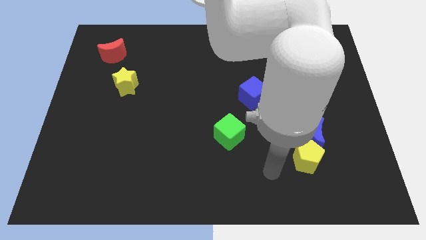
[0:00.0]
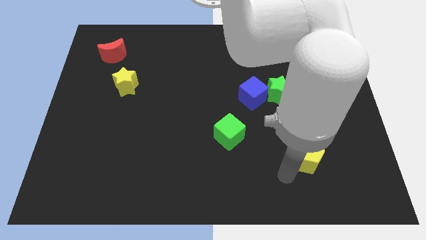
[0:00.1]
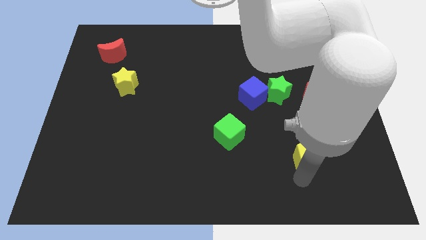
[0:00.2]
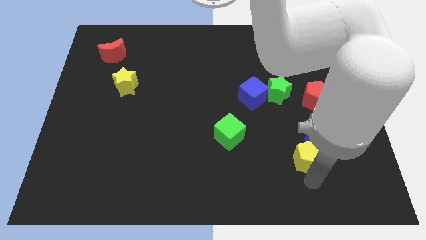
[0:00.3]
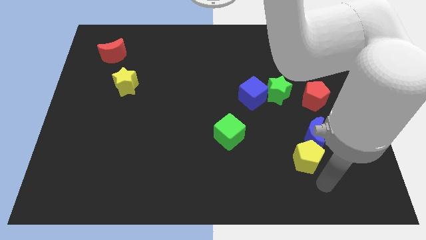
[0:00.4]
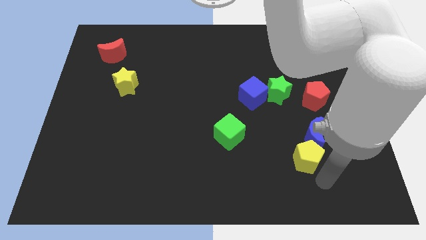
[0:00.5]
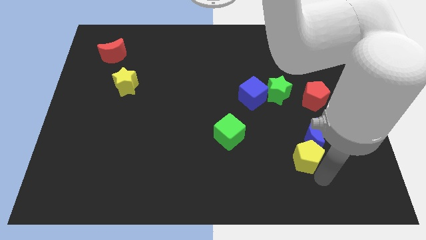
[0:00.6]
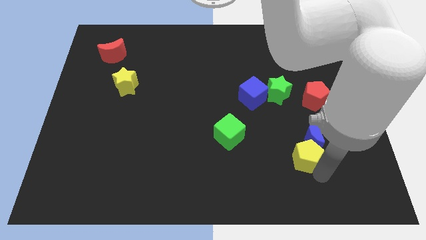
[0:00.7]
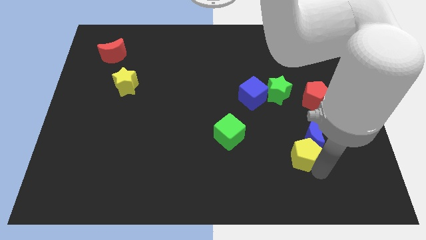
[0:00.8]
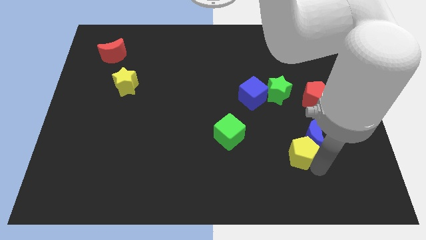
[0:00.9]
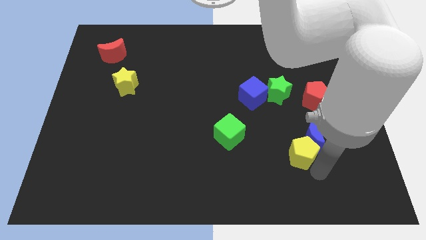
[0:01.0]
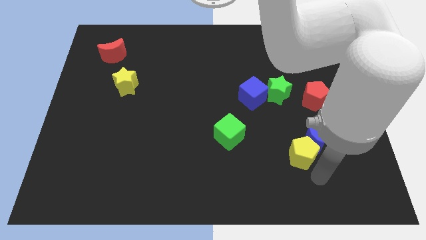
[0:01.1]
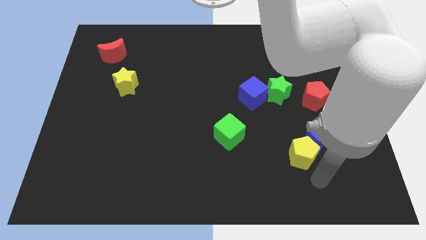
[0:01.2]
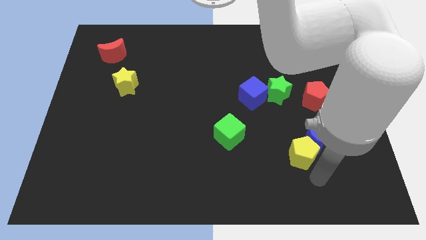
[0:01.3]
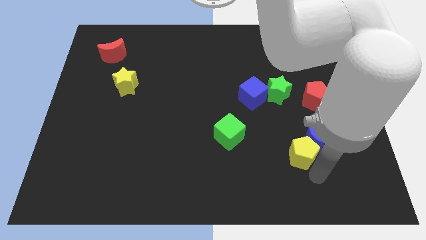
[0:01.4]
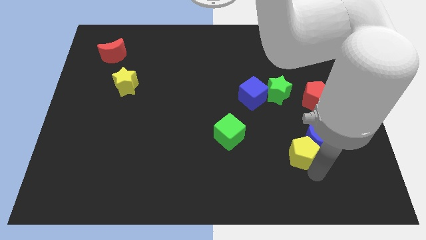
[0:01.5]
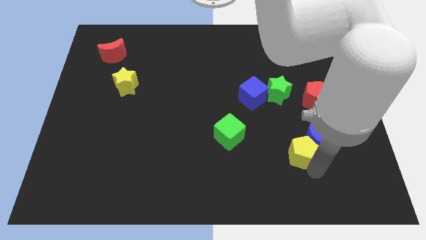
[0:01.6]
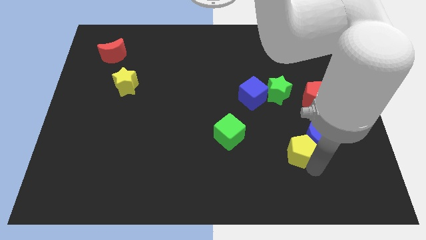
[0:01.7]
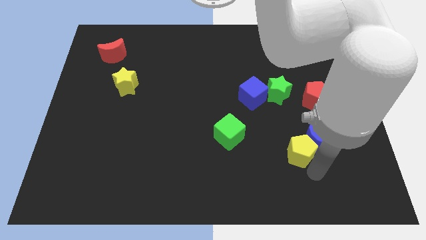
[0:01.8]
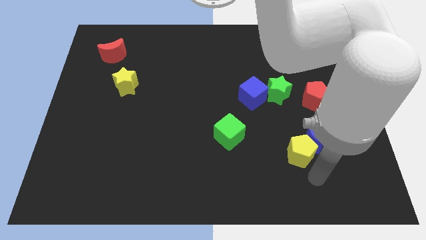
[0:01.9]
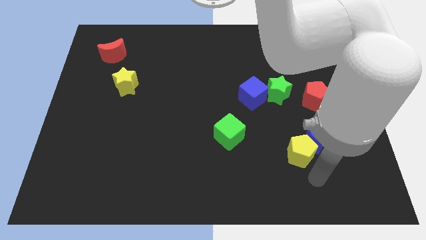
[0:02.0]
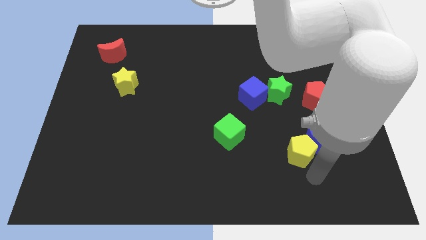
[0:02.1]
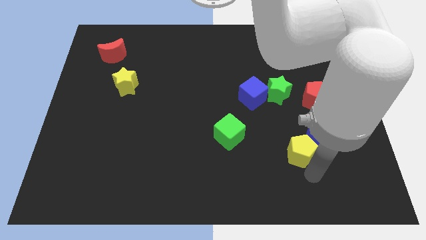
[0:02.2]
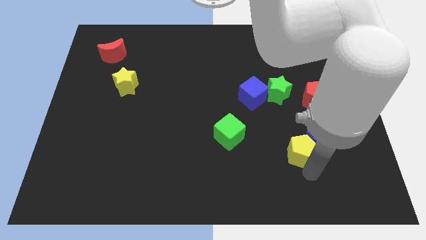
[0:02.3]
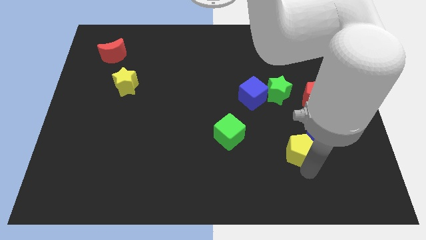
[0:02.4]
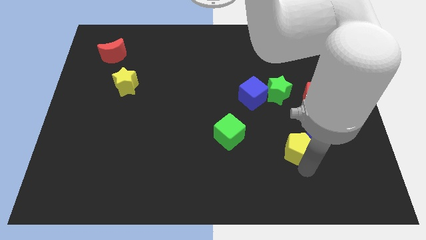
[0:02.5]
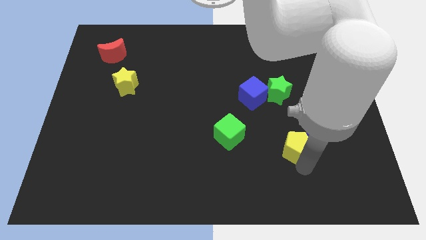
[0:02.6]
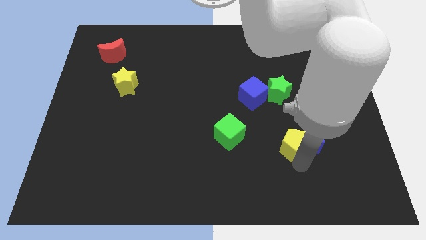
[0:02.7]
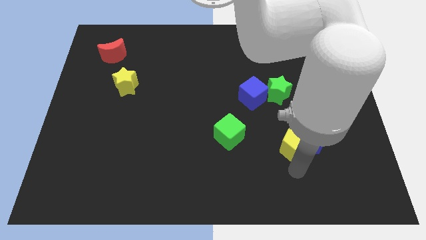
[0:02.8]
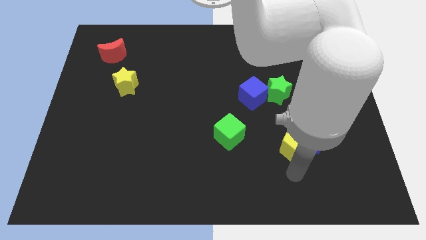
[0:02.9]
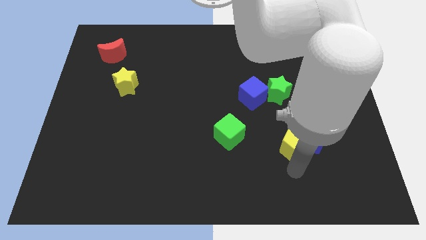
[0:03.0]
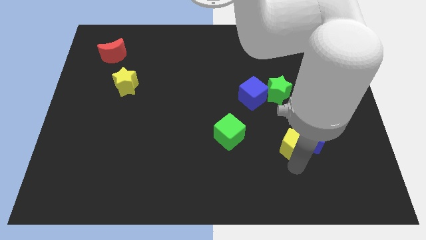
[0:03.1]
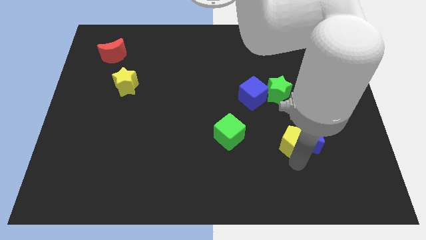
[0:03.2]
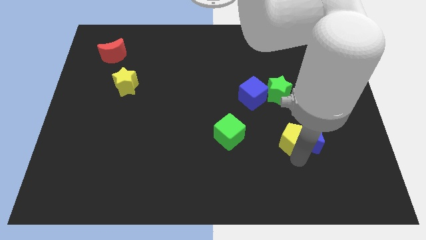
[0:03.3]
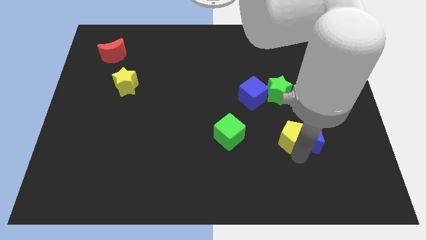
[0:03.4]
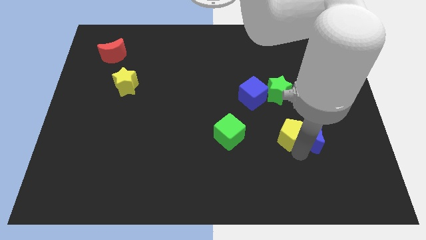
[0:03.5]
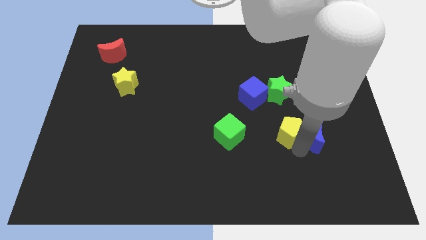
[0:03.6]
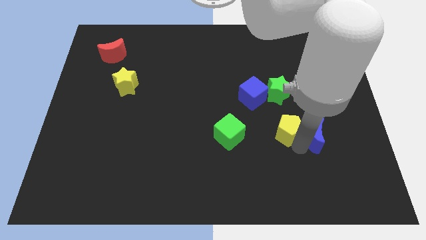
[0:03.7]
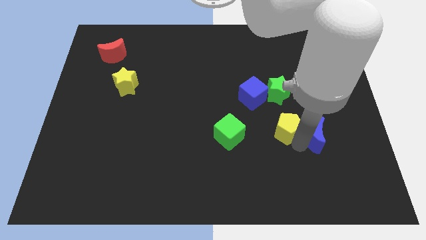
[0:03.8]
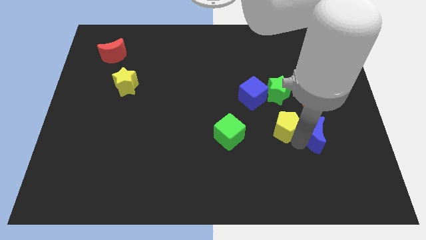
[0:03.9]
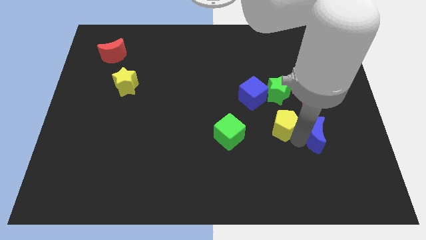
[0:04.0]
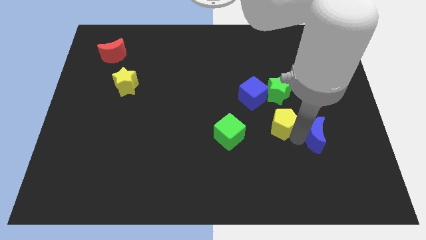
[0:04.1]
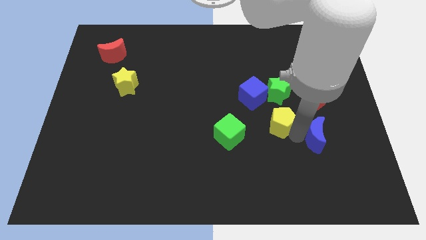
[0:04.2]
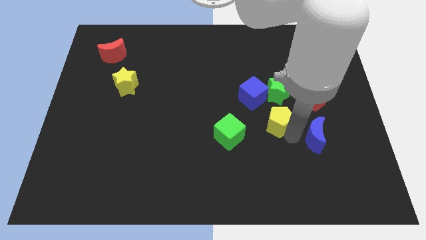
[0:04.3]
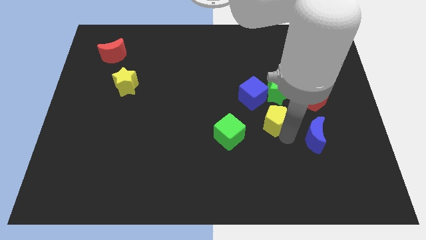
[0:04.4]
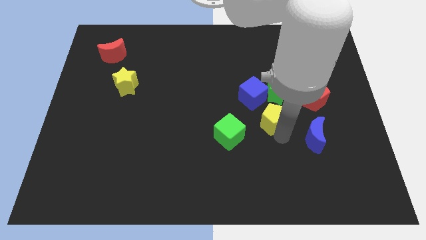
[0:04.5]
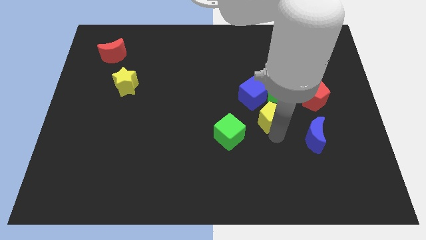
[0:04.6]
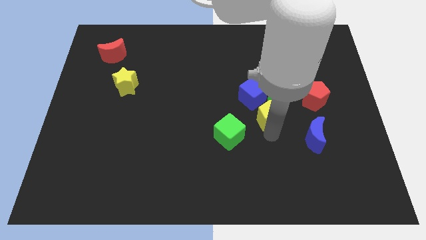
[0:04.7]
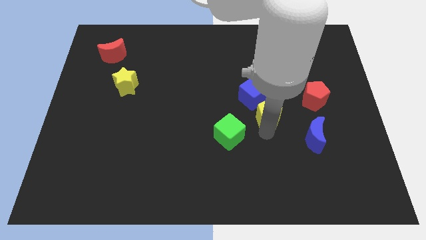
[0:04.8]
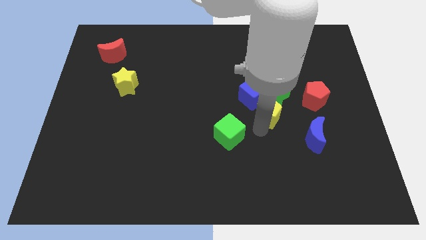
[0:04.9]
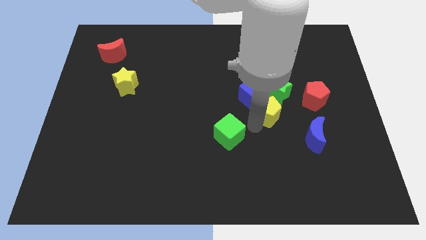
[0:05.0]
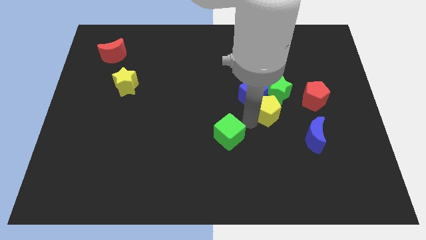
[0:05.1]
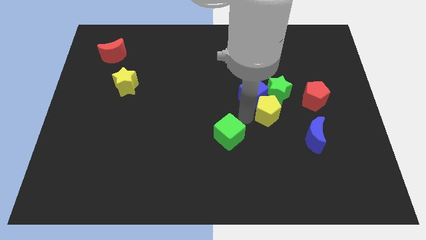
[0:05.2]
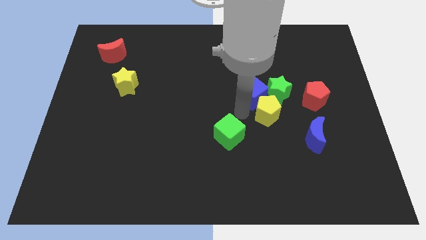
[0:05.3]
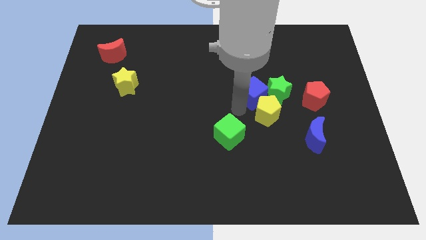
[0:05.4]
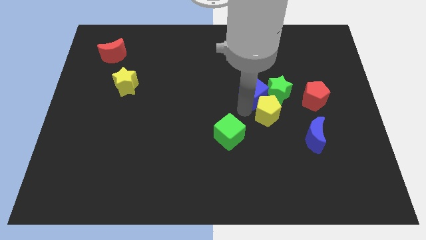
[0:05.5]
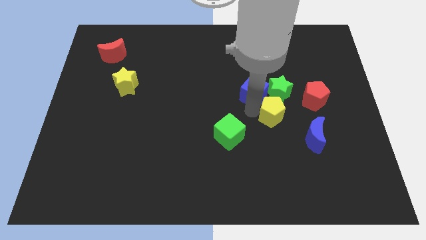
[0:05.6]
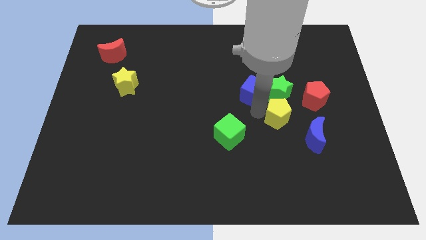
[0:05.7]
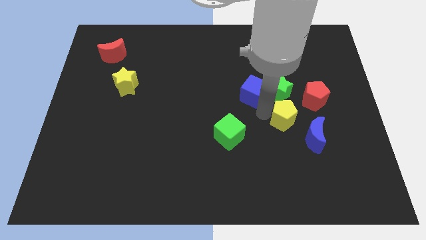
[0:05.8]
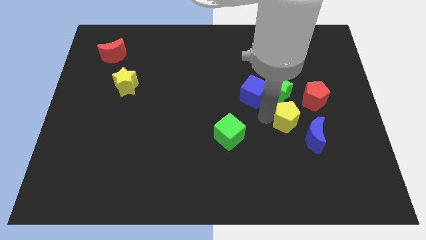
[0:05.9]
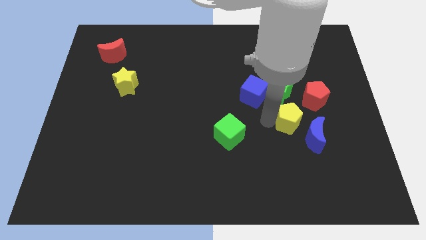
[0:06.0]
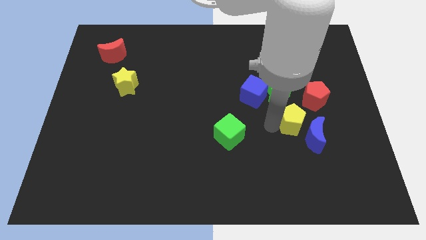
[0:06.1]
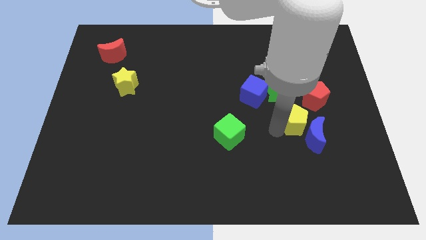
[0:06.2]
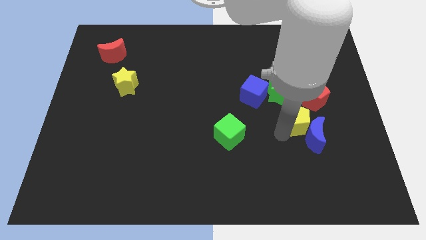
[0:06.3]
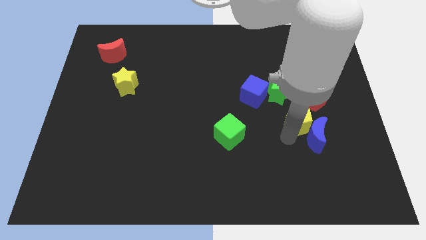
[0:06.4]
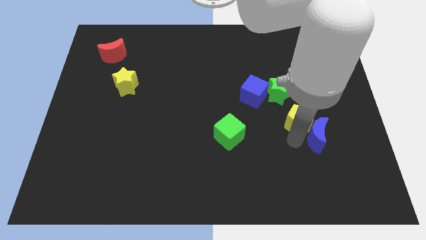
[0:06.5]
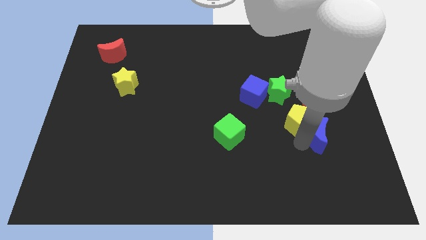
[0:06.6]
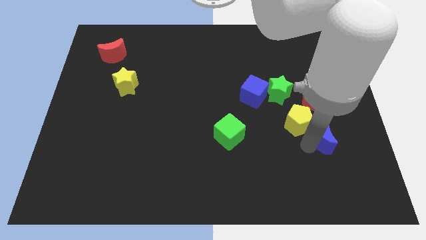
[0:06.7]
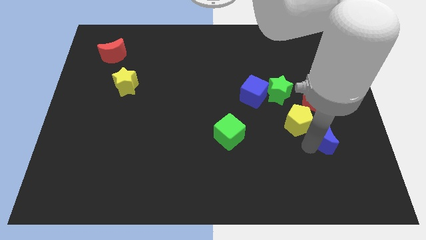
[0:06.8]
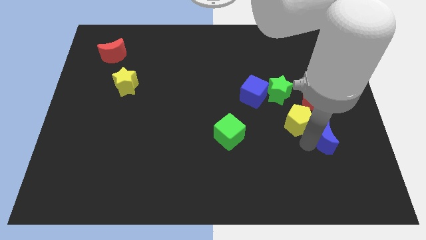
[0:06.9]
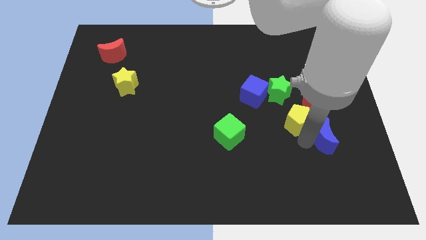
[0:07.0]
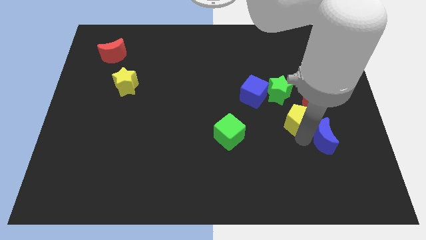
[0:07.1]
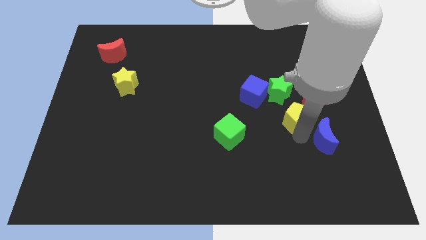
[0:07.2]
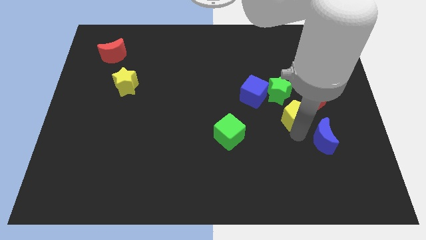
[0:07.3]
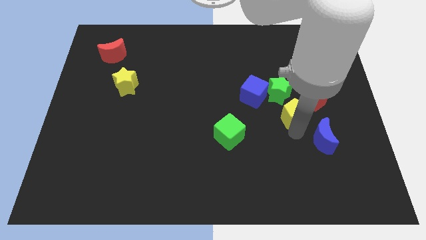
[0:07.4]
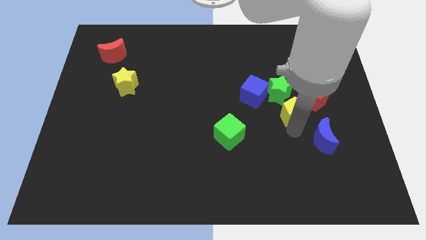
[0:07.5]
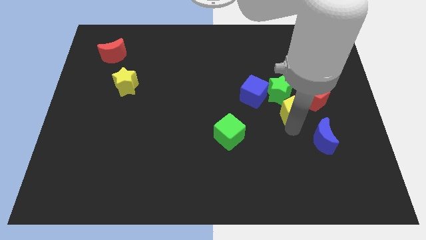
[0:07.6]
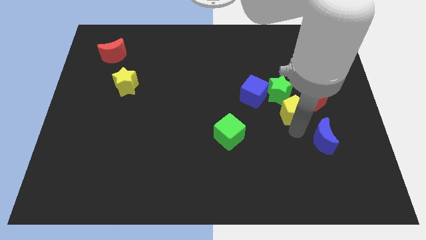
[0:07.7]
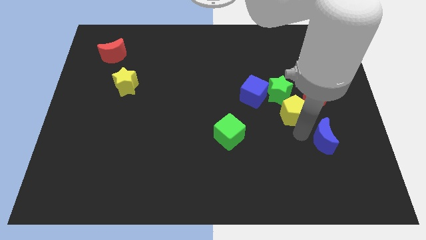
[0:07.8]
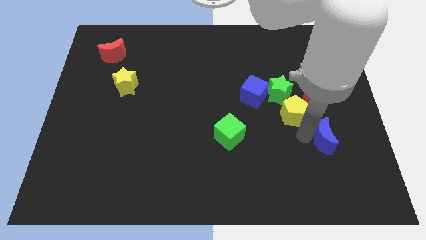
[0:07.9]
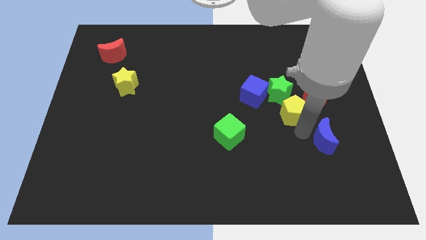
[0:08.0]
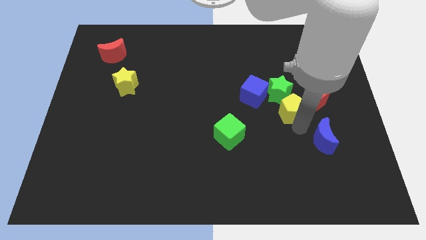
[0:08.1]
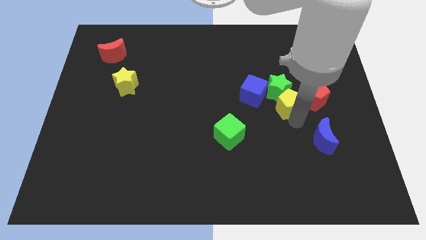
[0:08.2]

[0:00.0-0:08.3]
put the yellow pentagon close to the green star
